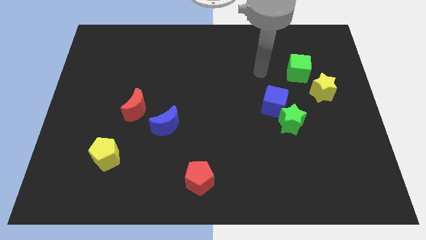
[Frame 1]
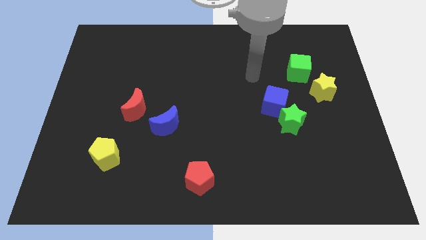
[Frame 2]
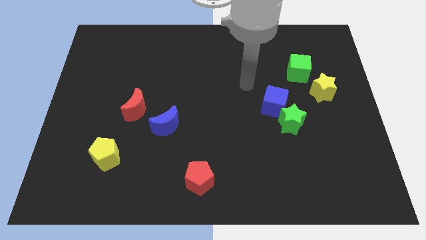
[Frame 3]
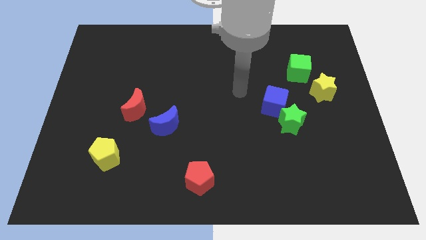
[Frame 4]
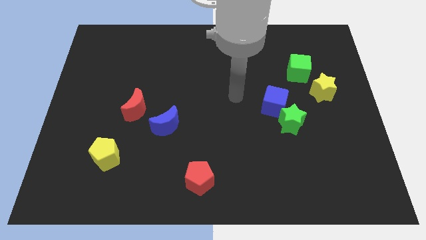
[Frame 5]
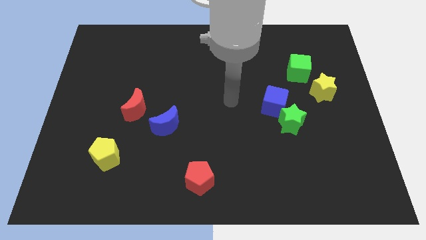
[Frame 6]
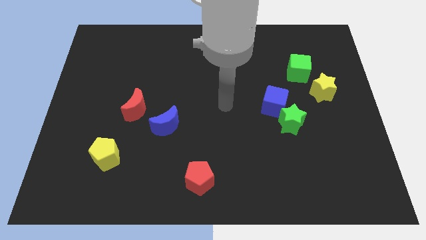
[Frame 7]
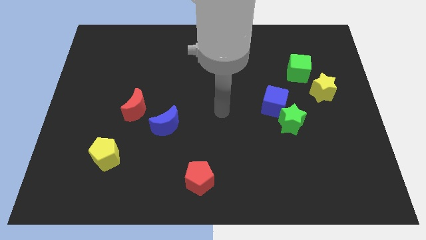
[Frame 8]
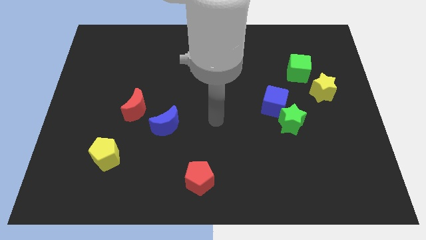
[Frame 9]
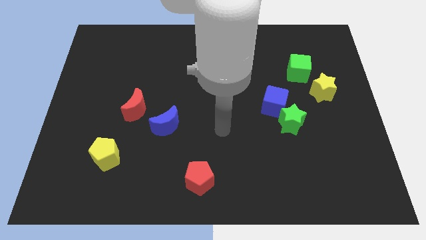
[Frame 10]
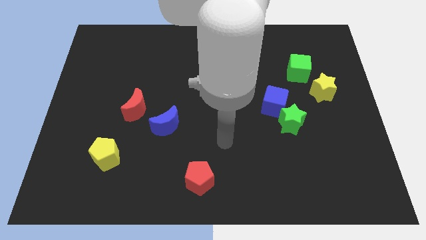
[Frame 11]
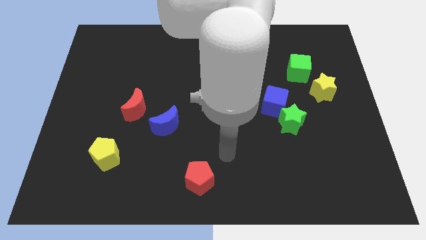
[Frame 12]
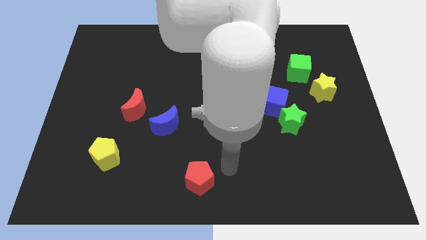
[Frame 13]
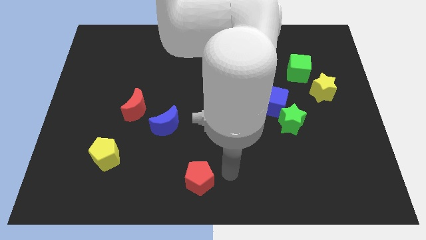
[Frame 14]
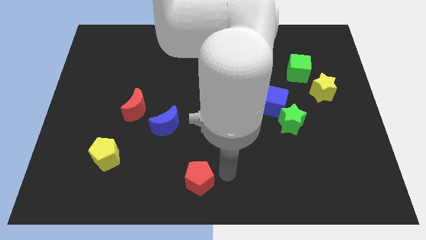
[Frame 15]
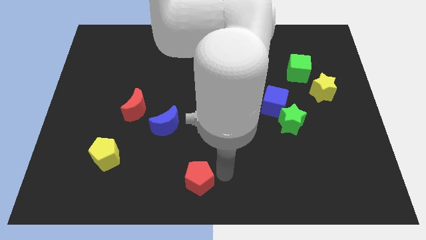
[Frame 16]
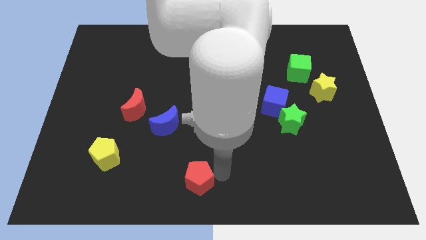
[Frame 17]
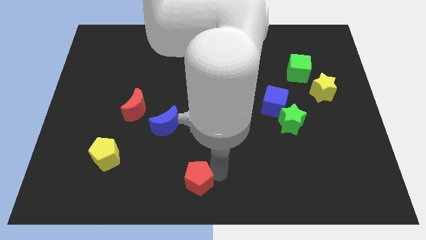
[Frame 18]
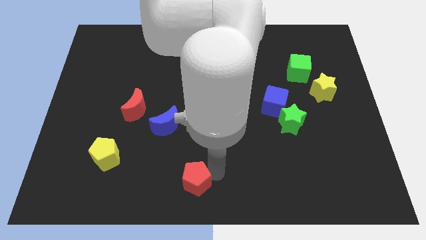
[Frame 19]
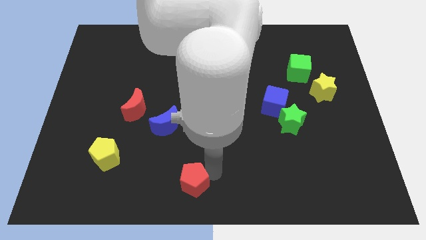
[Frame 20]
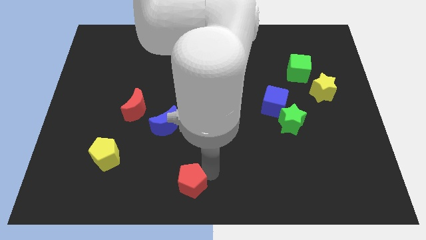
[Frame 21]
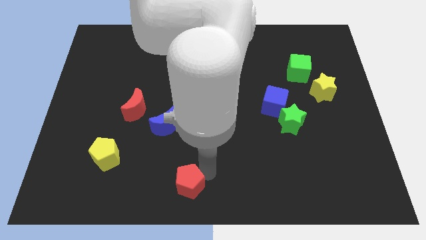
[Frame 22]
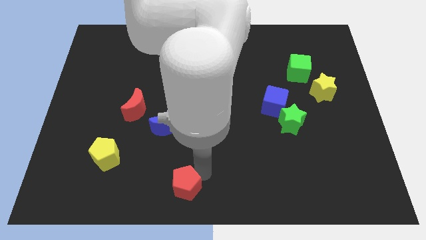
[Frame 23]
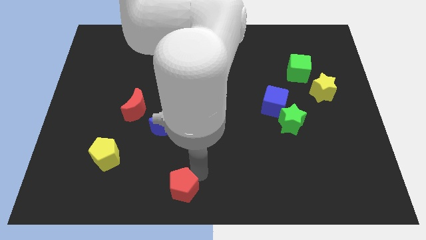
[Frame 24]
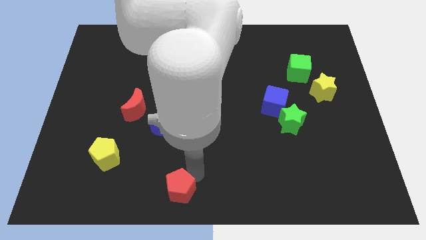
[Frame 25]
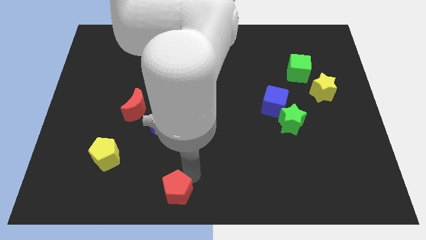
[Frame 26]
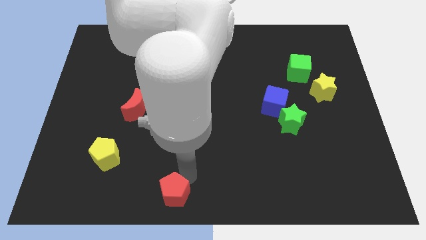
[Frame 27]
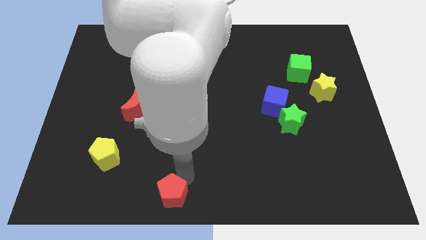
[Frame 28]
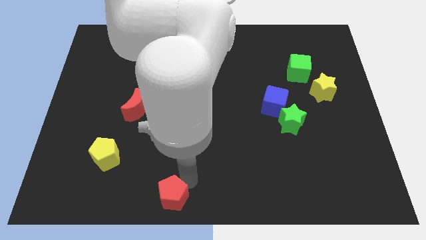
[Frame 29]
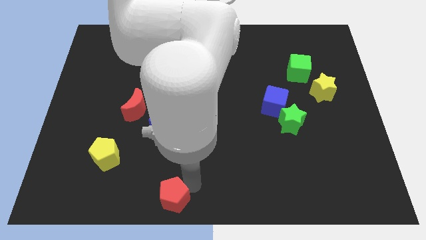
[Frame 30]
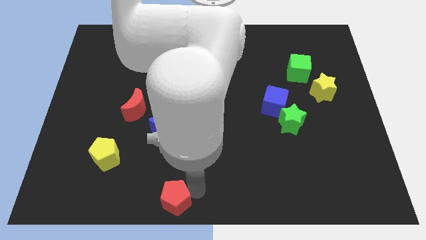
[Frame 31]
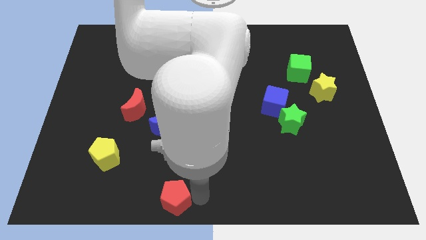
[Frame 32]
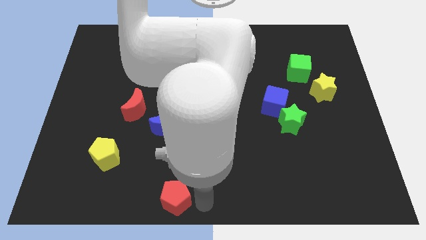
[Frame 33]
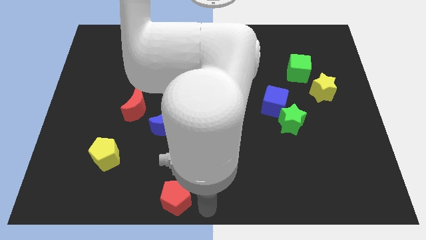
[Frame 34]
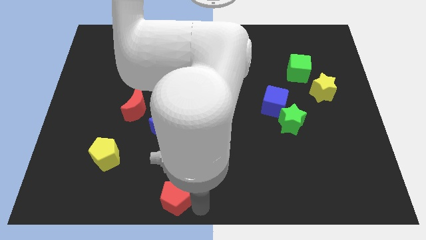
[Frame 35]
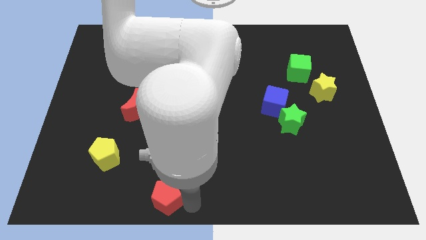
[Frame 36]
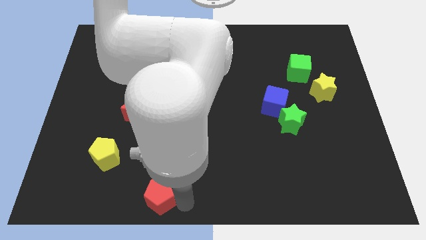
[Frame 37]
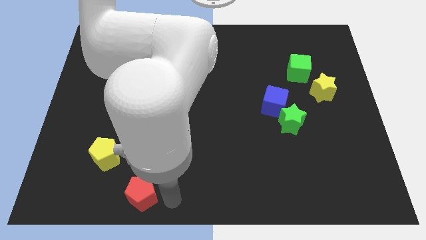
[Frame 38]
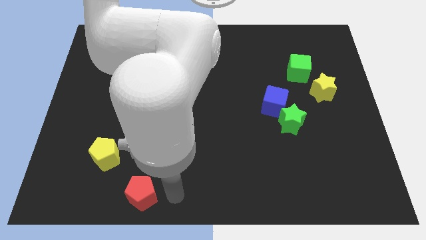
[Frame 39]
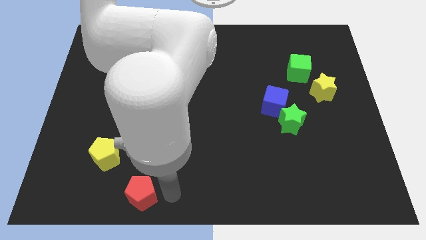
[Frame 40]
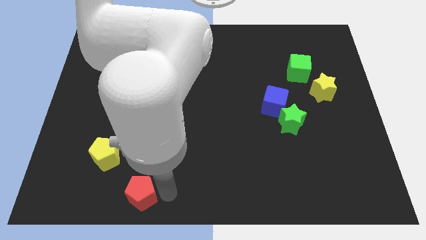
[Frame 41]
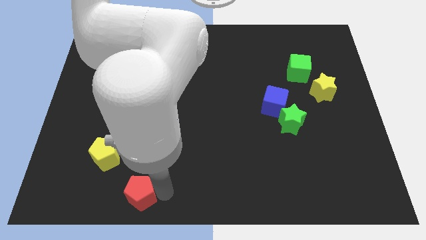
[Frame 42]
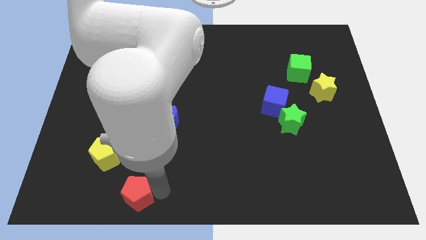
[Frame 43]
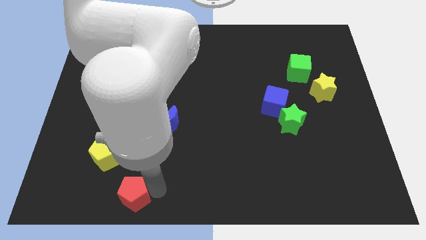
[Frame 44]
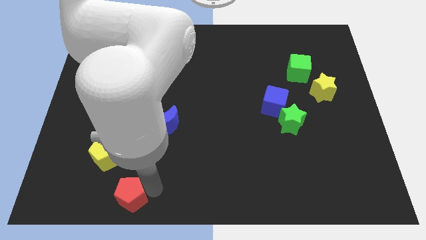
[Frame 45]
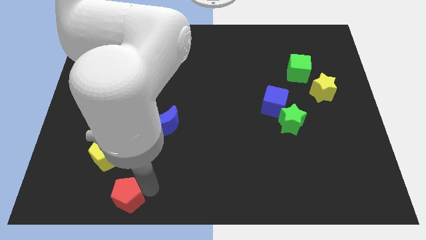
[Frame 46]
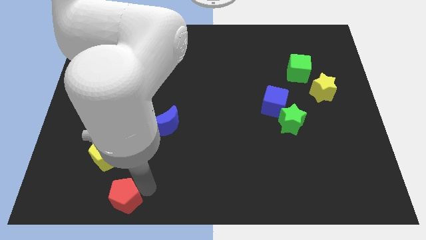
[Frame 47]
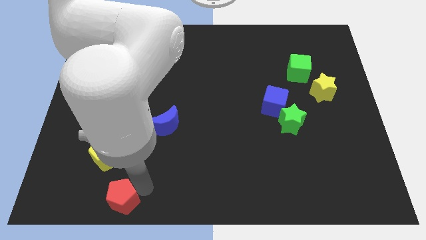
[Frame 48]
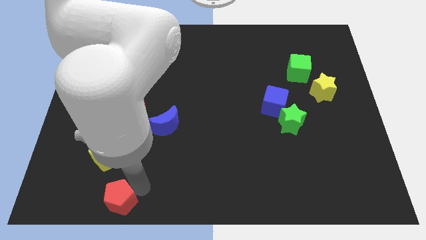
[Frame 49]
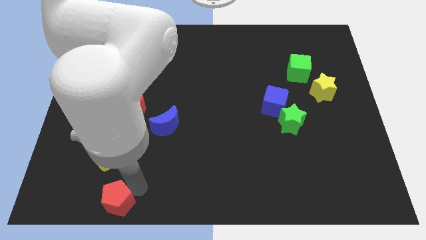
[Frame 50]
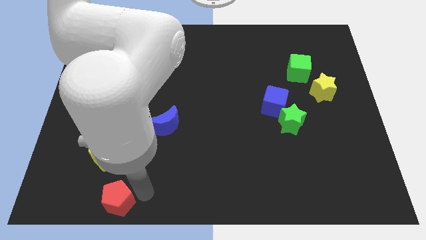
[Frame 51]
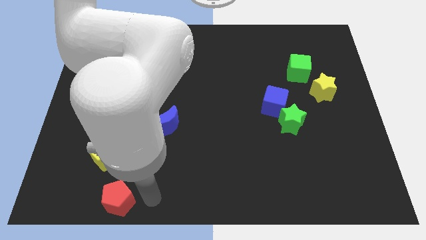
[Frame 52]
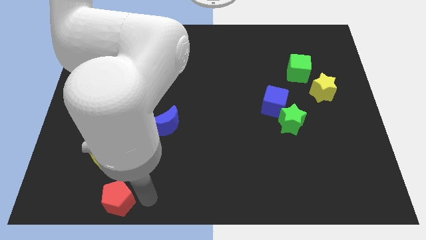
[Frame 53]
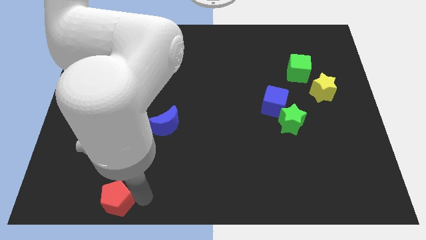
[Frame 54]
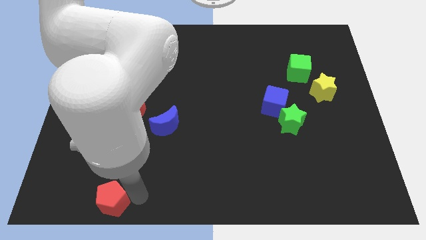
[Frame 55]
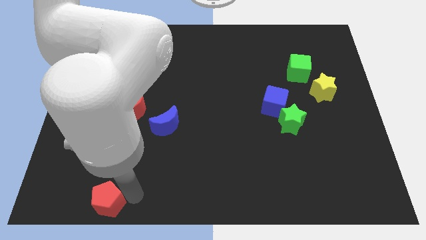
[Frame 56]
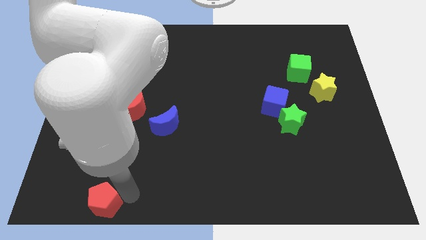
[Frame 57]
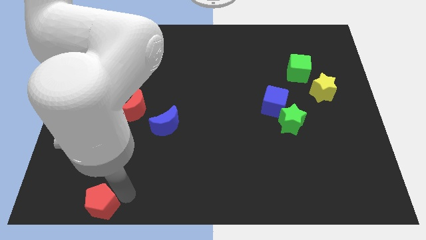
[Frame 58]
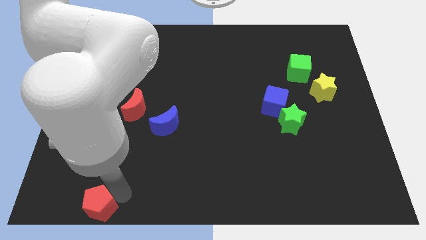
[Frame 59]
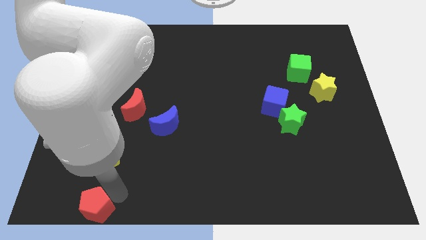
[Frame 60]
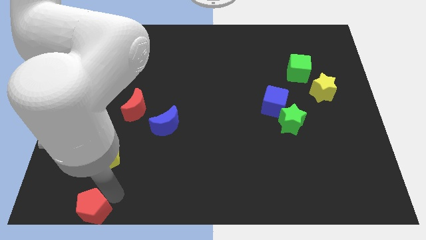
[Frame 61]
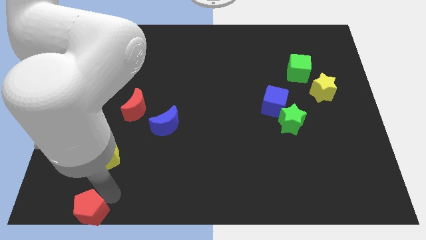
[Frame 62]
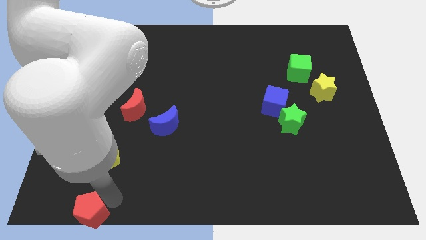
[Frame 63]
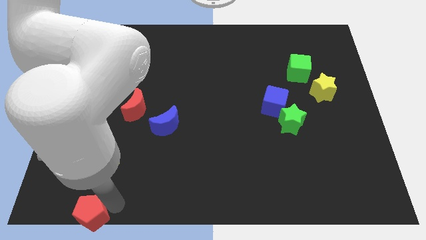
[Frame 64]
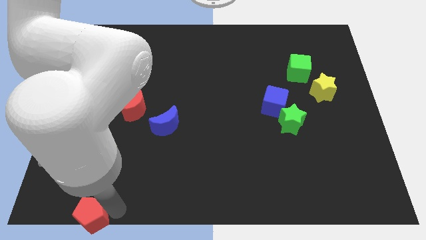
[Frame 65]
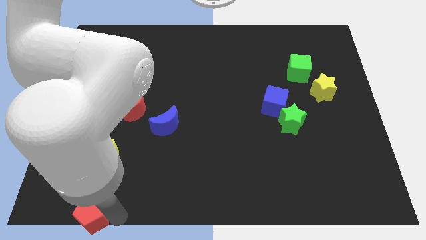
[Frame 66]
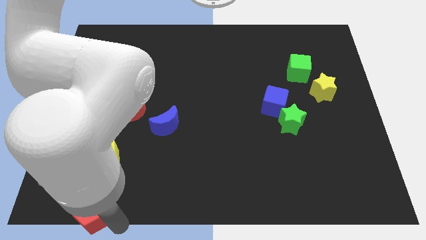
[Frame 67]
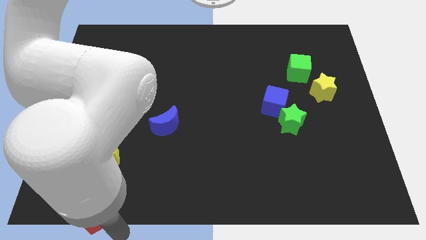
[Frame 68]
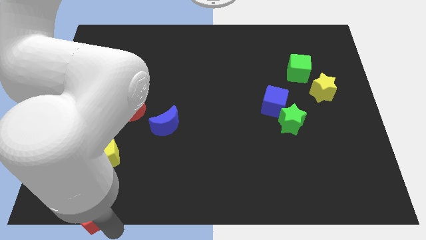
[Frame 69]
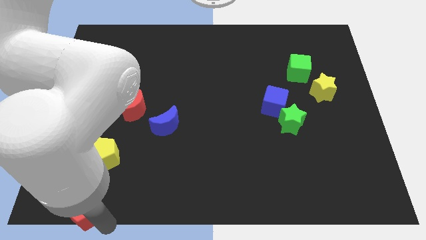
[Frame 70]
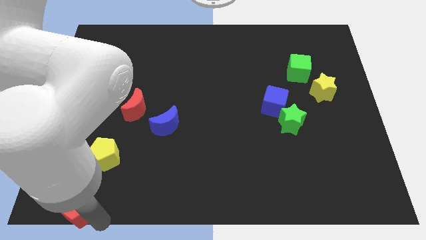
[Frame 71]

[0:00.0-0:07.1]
put the red pentagon to the bottom left of the board
